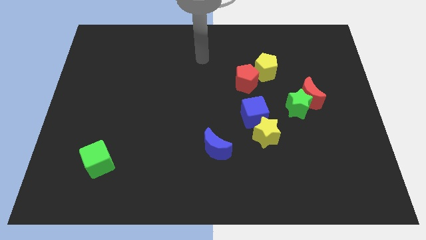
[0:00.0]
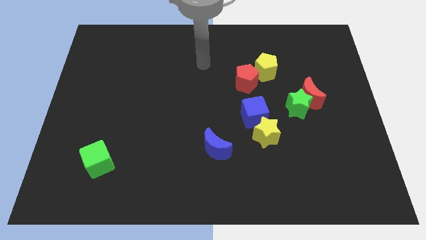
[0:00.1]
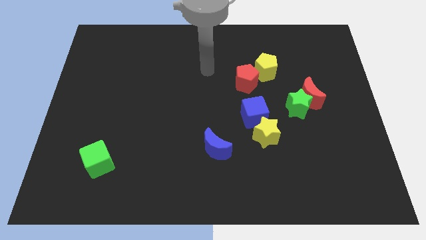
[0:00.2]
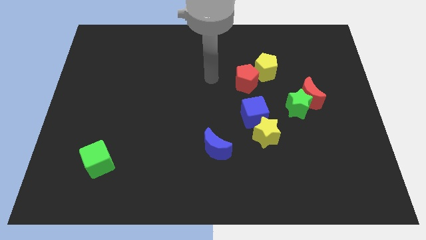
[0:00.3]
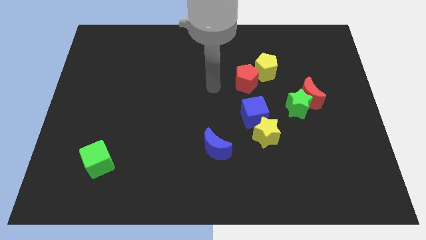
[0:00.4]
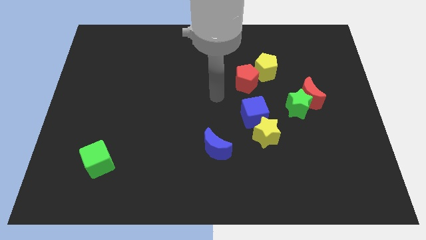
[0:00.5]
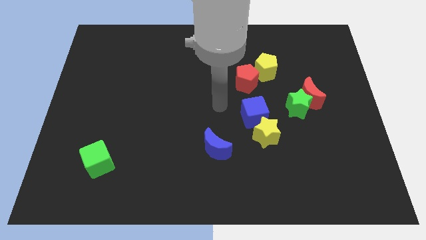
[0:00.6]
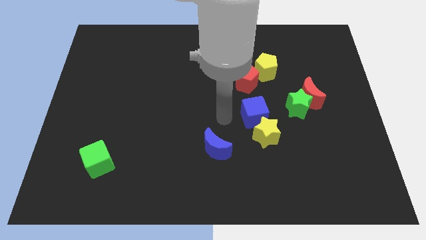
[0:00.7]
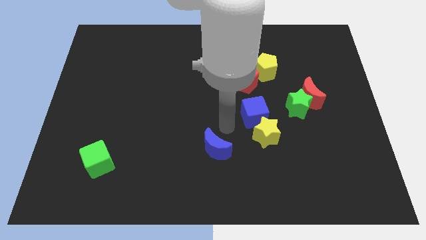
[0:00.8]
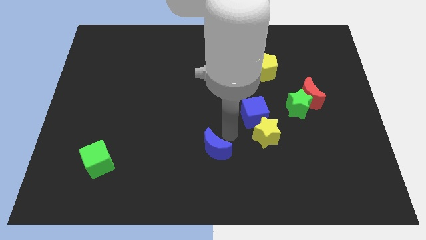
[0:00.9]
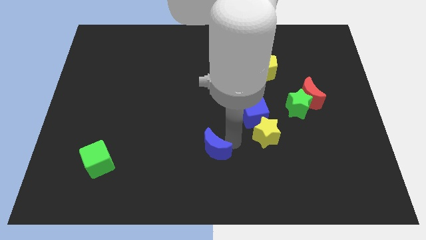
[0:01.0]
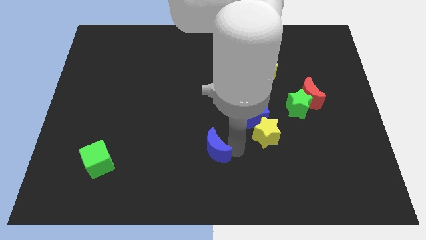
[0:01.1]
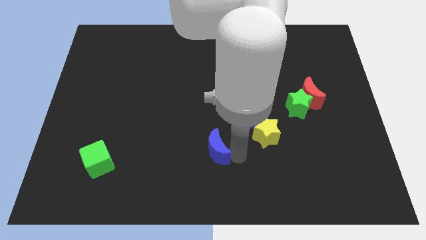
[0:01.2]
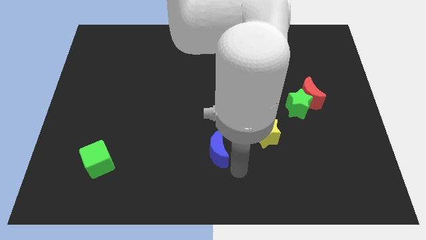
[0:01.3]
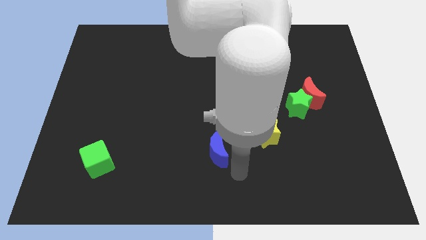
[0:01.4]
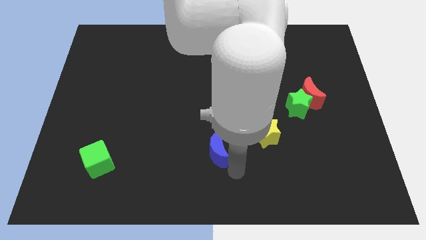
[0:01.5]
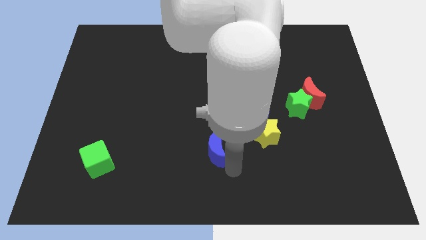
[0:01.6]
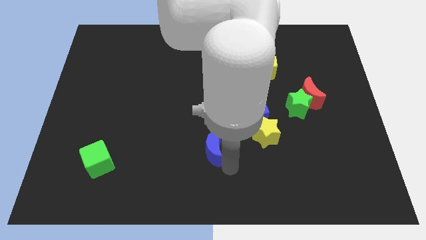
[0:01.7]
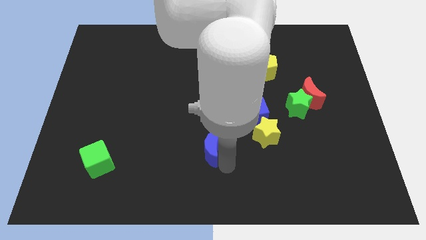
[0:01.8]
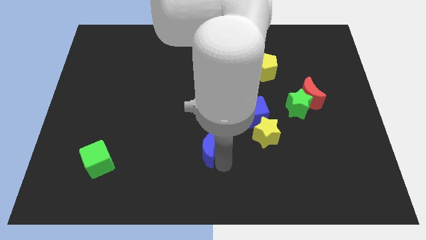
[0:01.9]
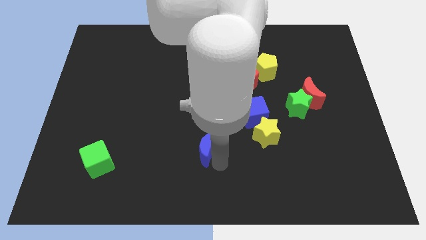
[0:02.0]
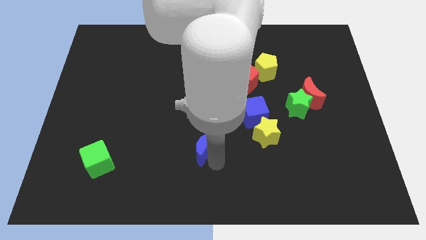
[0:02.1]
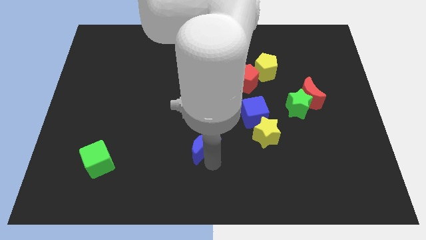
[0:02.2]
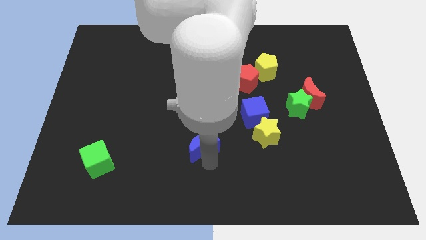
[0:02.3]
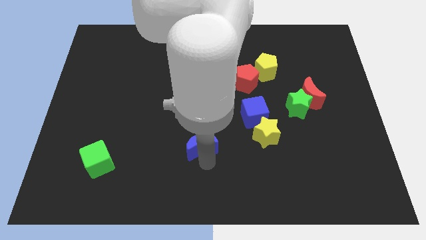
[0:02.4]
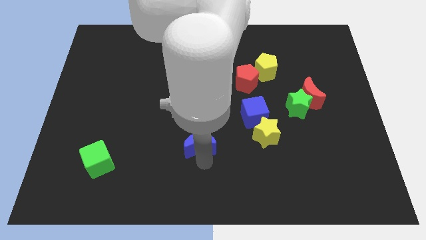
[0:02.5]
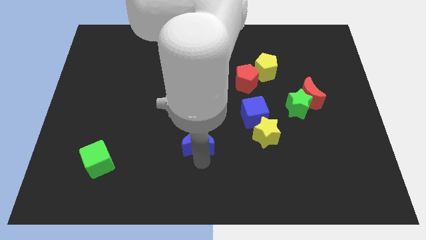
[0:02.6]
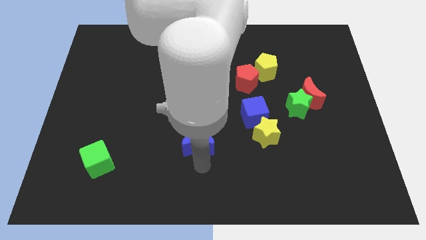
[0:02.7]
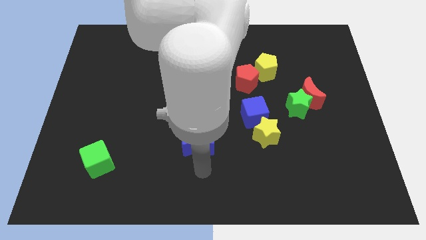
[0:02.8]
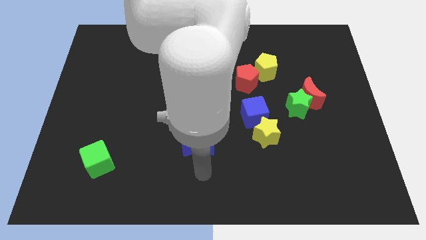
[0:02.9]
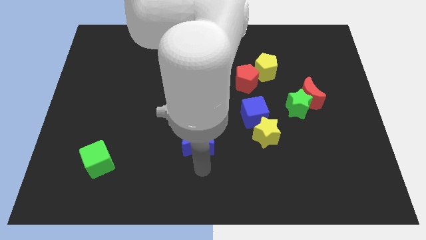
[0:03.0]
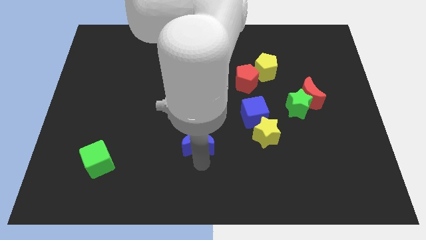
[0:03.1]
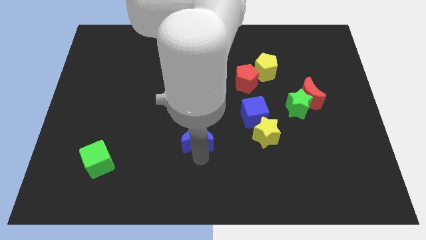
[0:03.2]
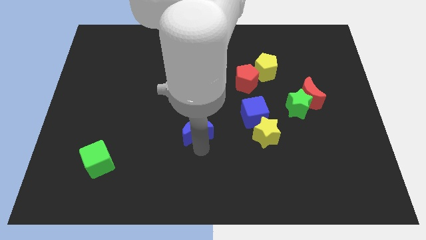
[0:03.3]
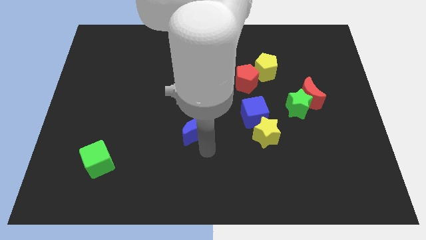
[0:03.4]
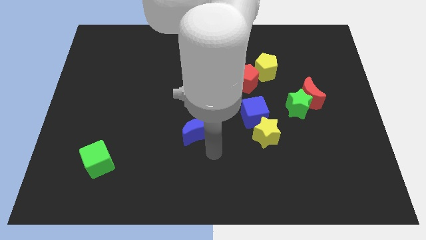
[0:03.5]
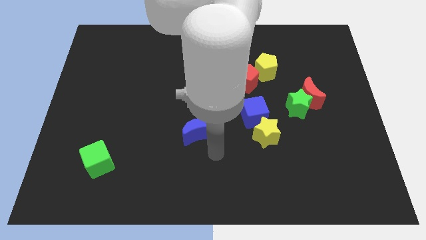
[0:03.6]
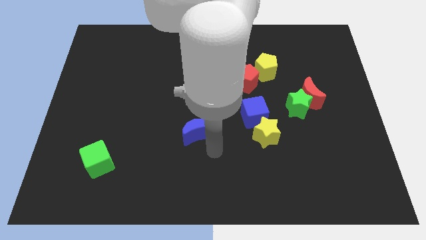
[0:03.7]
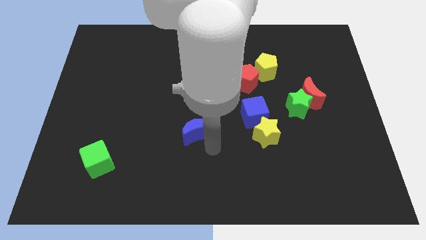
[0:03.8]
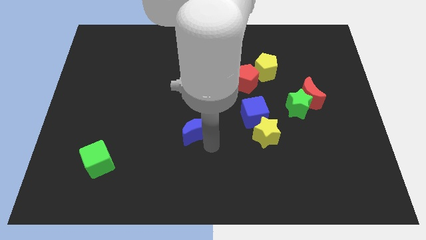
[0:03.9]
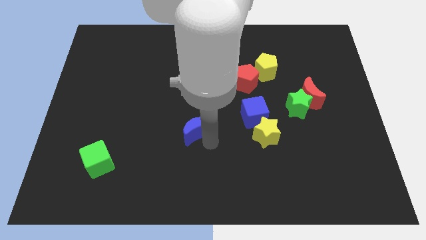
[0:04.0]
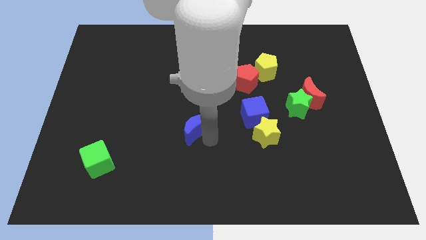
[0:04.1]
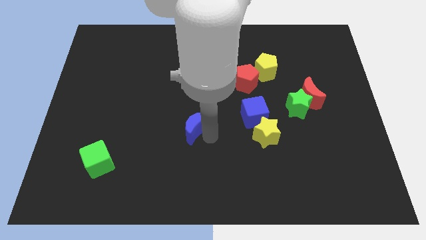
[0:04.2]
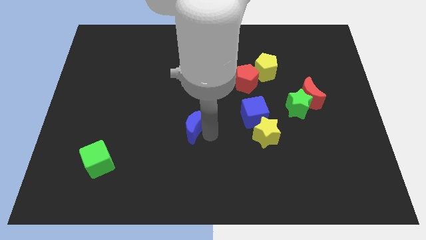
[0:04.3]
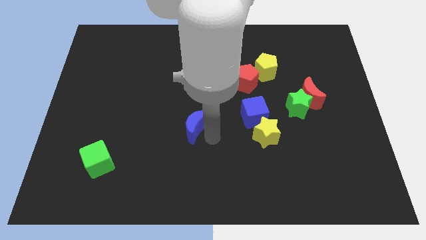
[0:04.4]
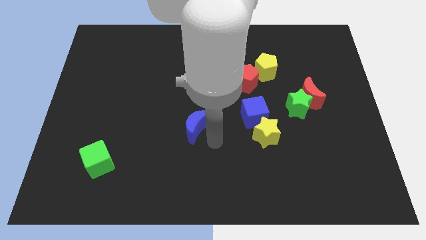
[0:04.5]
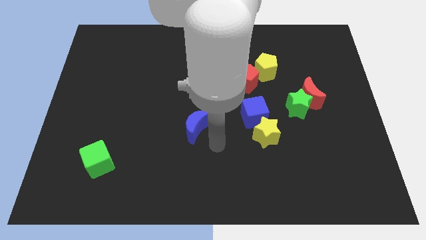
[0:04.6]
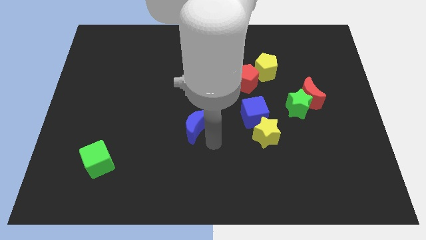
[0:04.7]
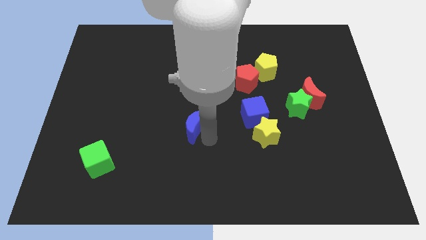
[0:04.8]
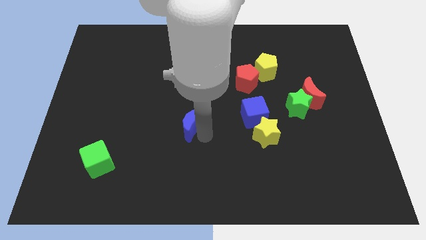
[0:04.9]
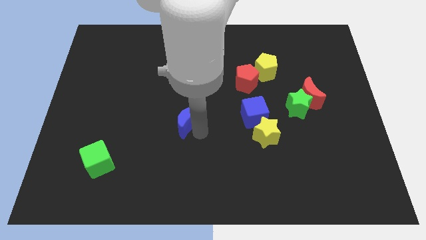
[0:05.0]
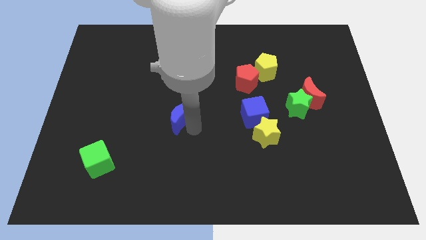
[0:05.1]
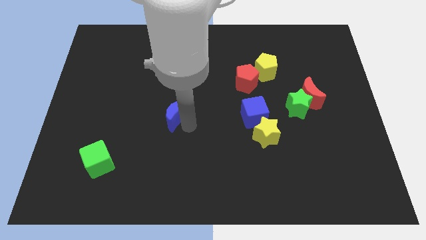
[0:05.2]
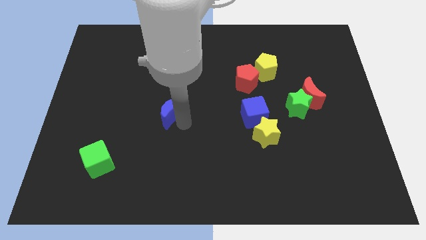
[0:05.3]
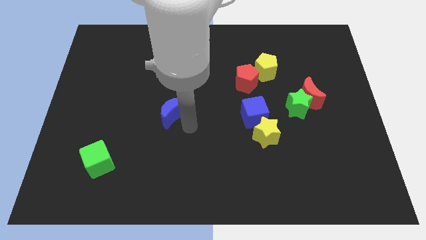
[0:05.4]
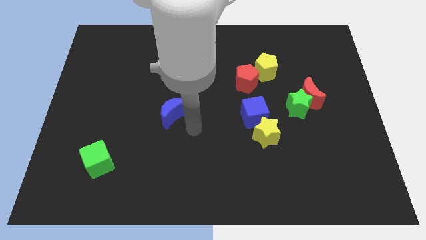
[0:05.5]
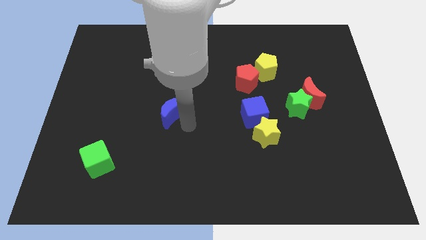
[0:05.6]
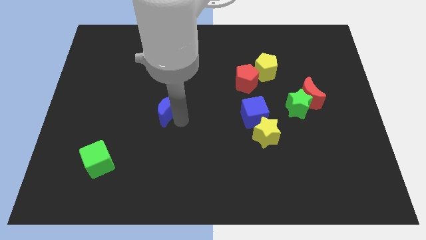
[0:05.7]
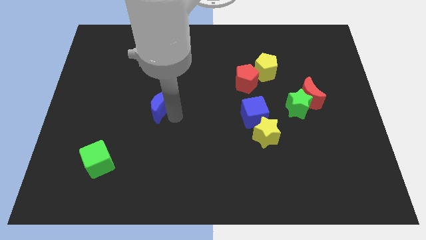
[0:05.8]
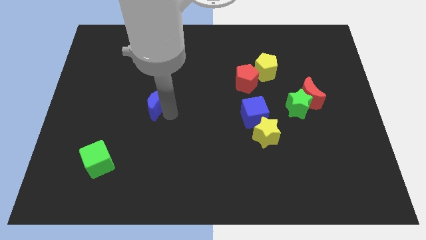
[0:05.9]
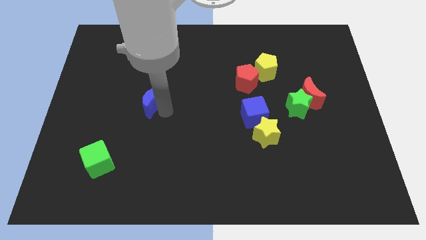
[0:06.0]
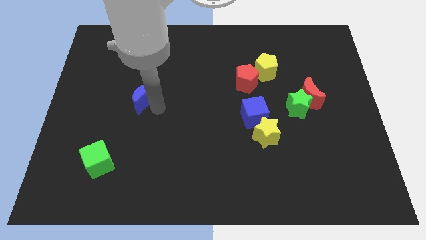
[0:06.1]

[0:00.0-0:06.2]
push the blue moon upwards and then left

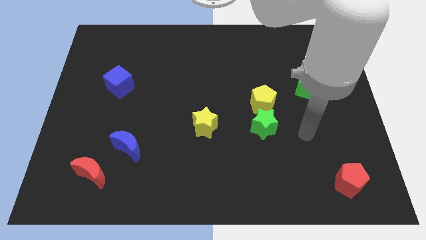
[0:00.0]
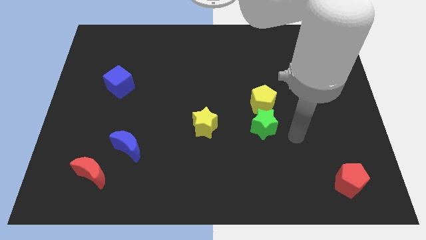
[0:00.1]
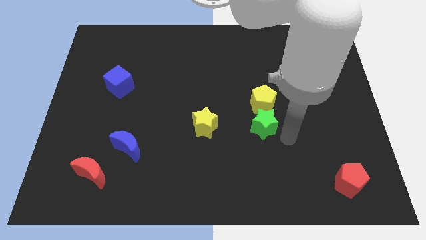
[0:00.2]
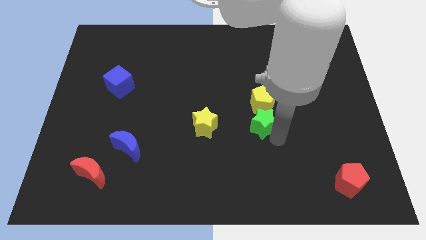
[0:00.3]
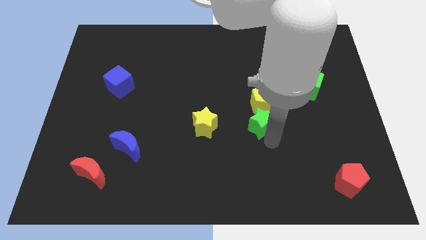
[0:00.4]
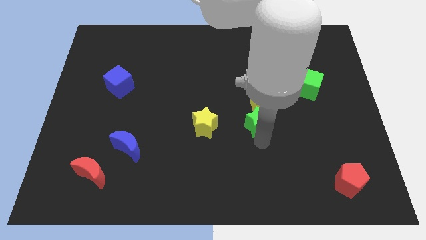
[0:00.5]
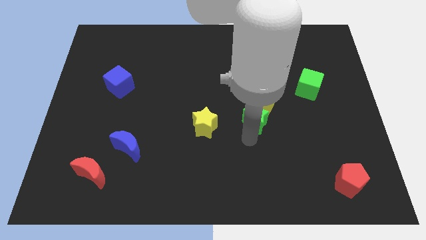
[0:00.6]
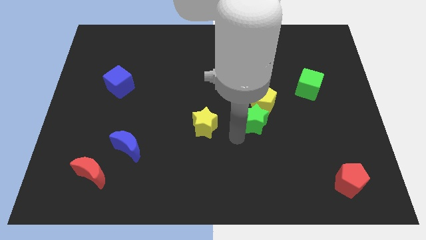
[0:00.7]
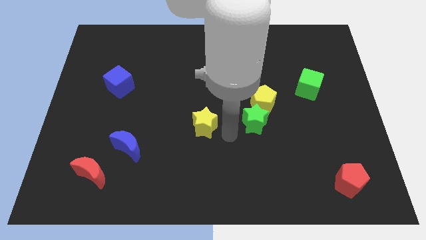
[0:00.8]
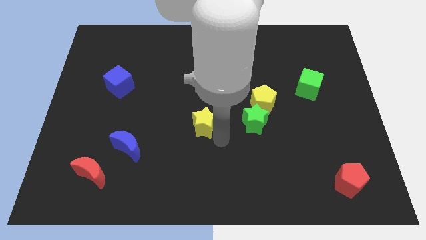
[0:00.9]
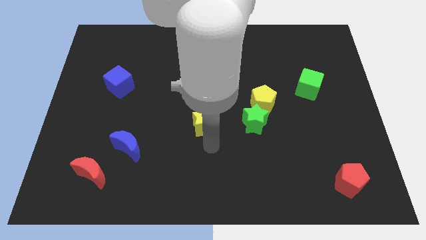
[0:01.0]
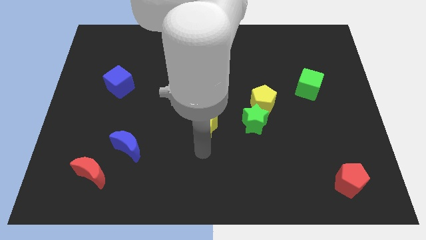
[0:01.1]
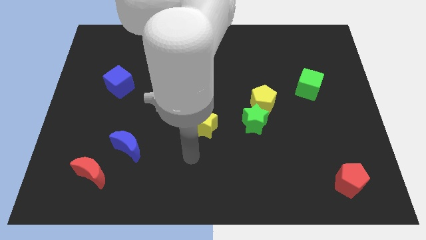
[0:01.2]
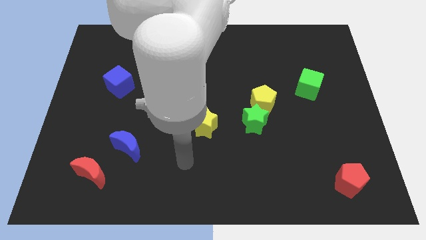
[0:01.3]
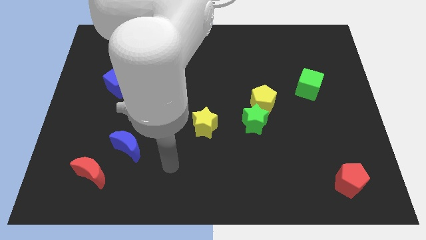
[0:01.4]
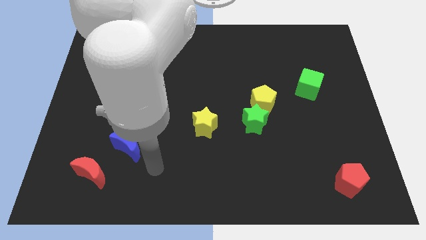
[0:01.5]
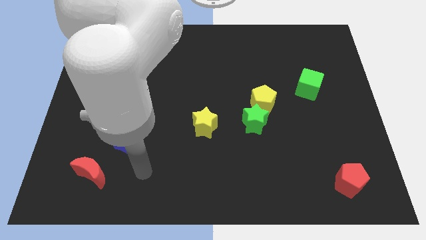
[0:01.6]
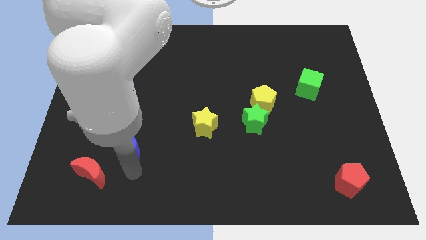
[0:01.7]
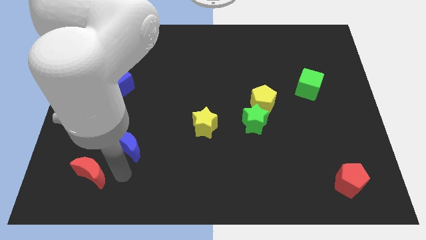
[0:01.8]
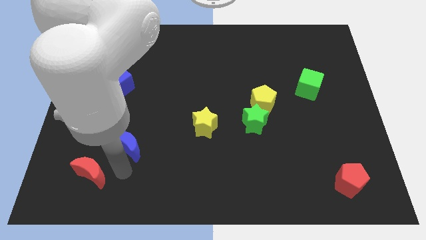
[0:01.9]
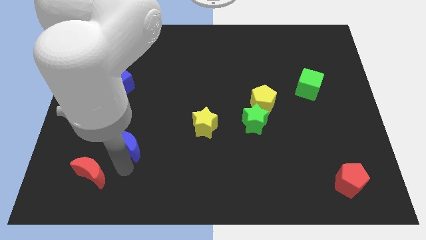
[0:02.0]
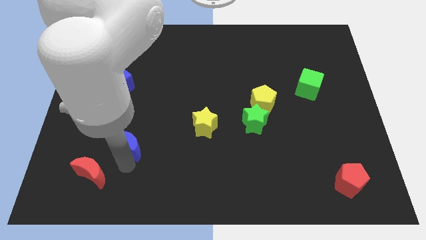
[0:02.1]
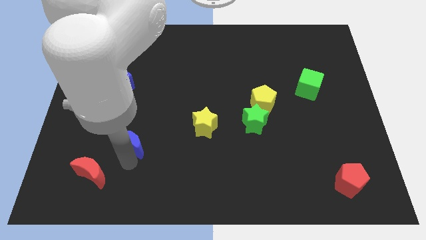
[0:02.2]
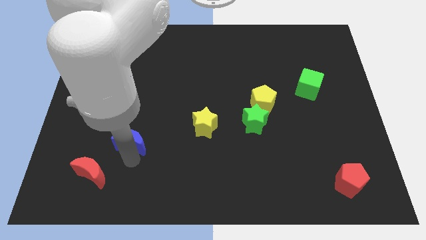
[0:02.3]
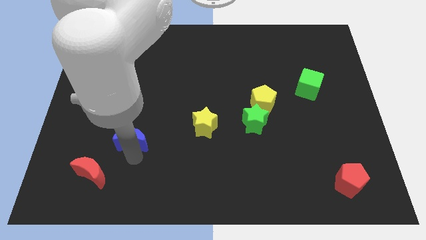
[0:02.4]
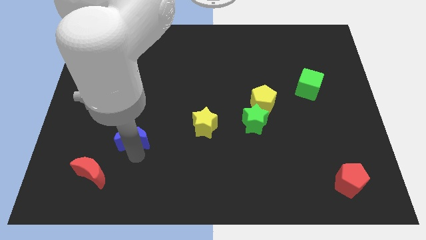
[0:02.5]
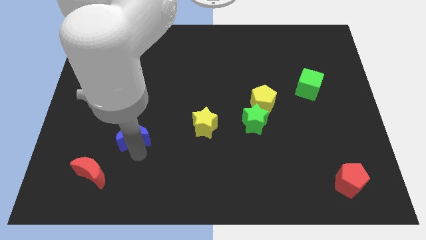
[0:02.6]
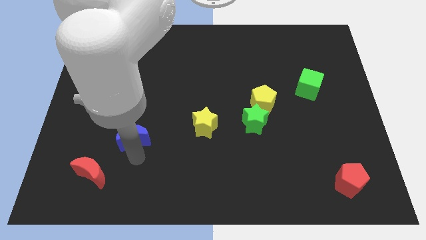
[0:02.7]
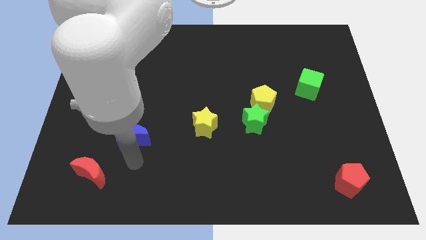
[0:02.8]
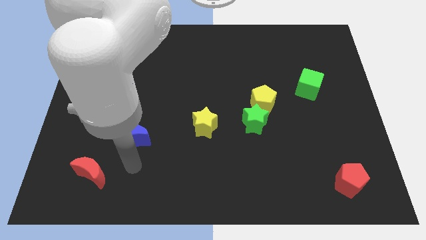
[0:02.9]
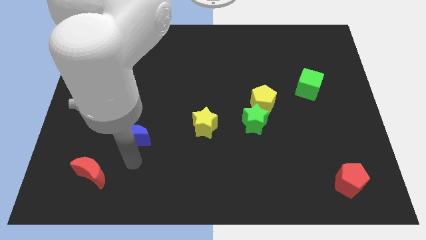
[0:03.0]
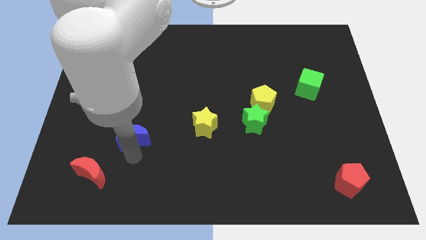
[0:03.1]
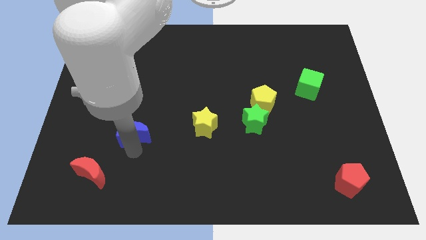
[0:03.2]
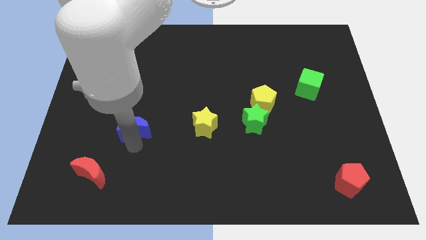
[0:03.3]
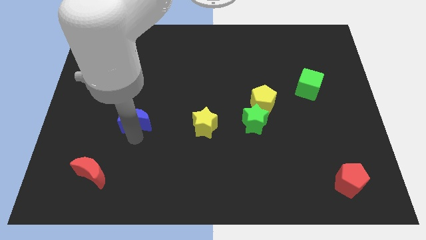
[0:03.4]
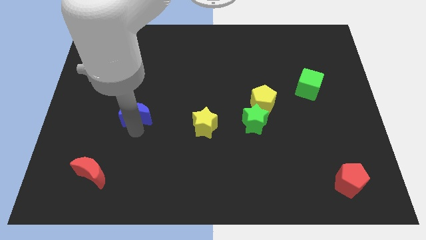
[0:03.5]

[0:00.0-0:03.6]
push the blue moon a little bit upwards
